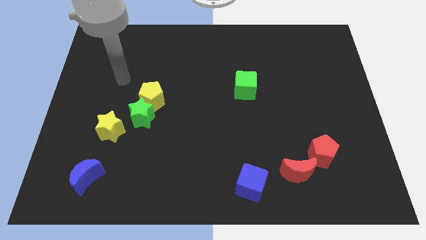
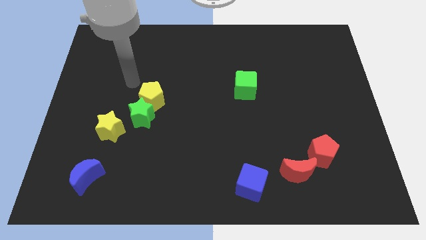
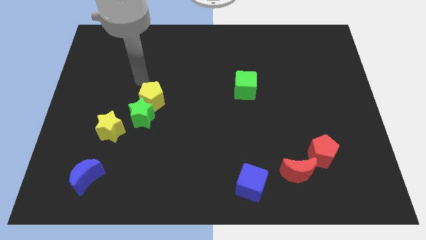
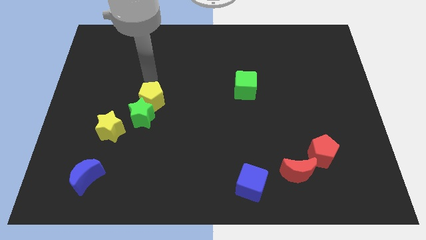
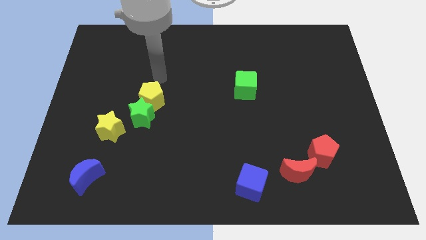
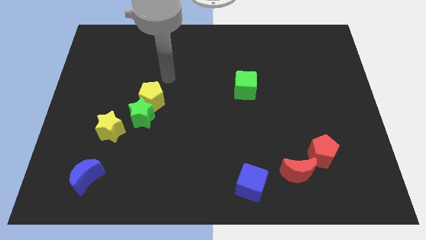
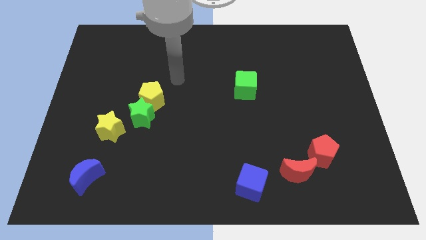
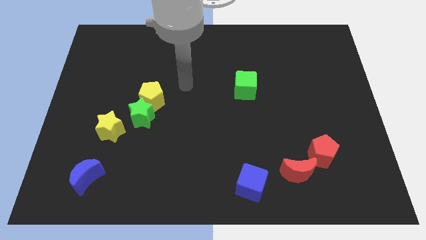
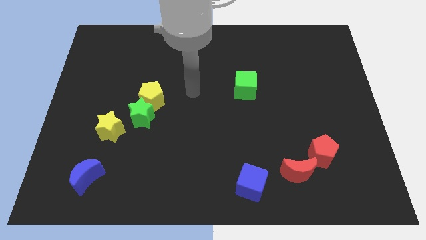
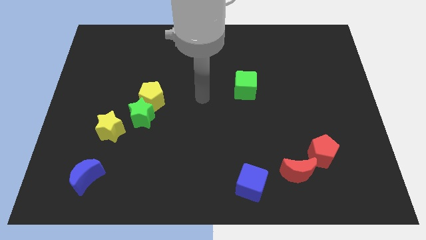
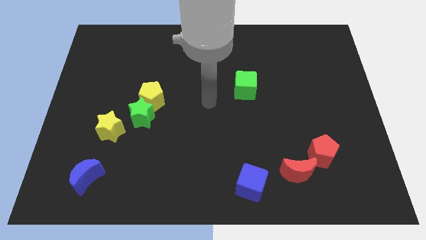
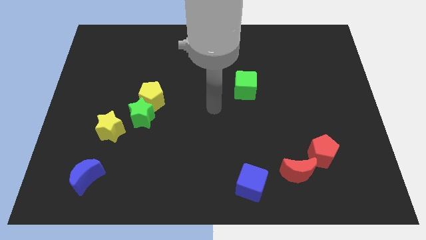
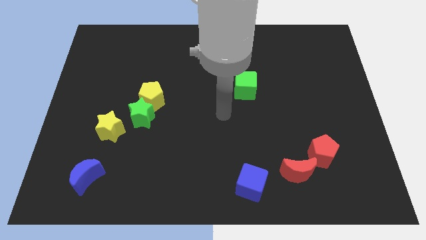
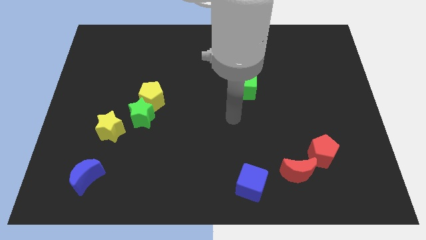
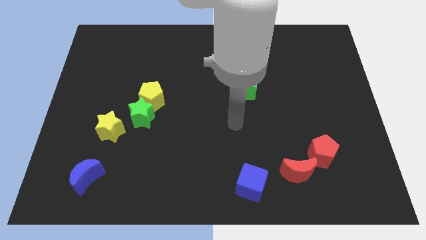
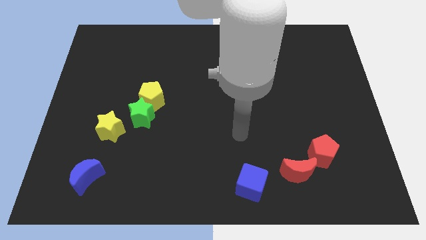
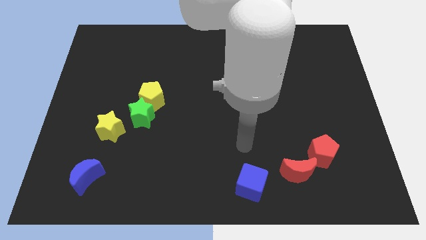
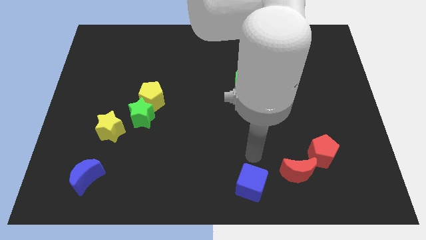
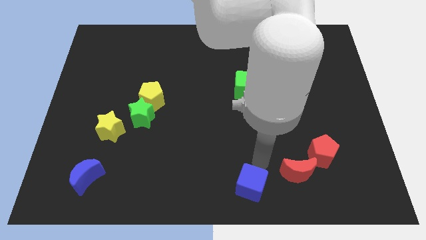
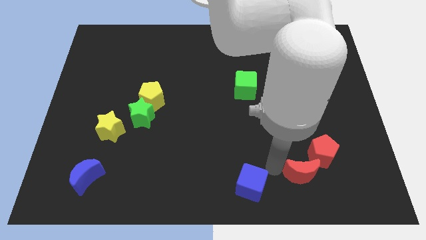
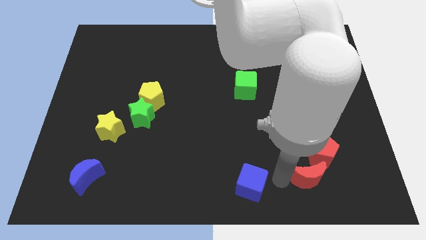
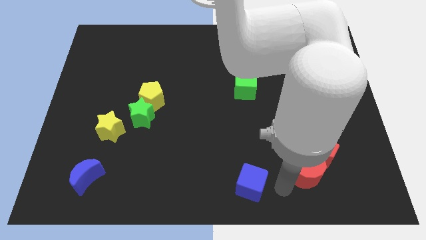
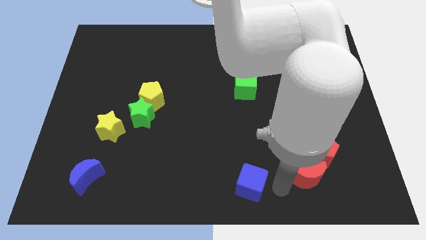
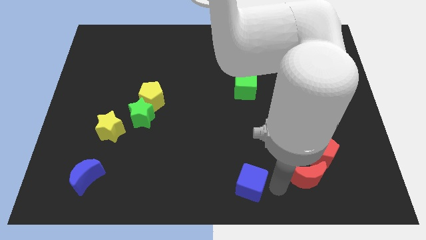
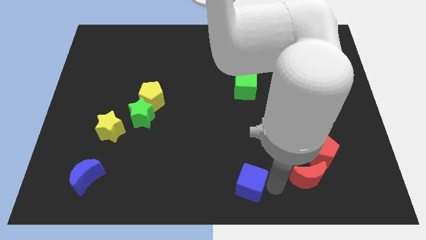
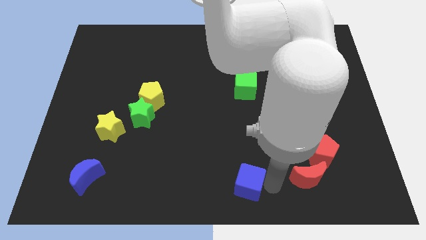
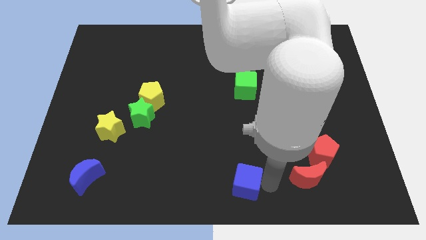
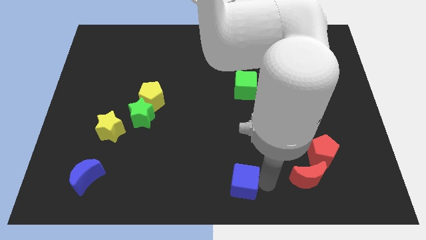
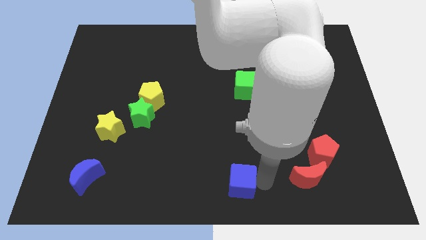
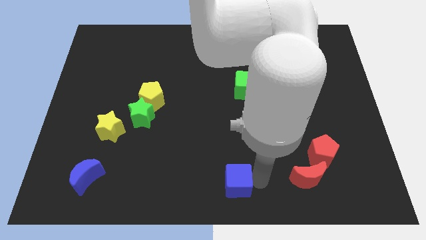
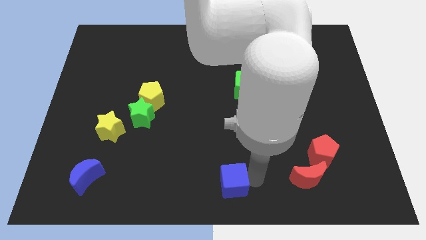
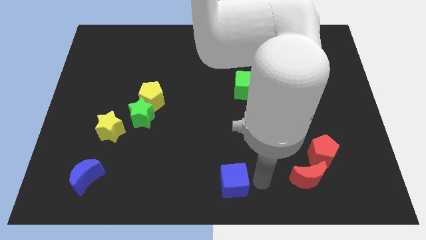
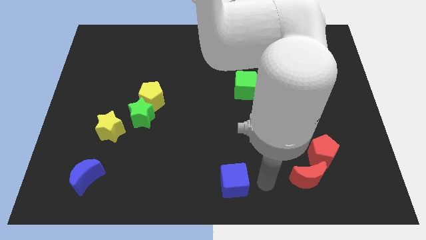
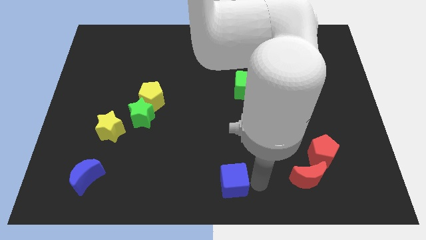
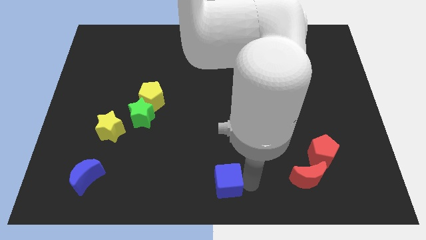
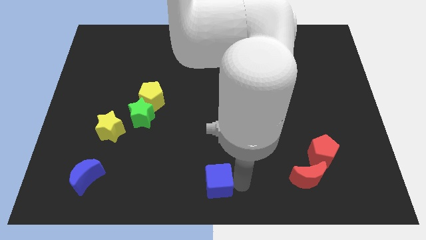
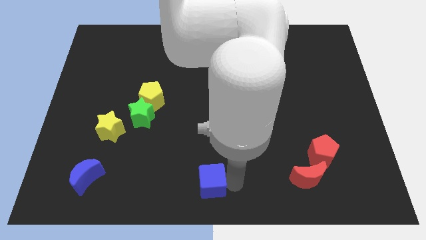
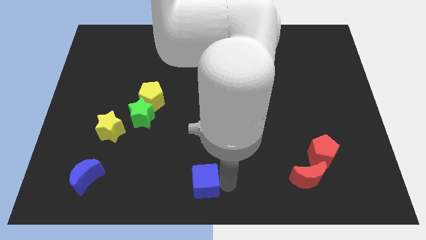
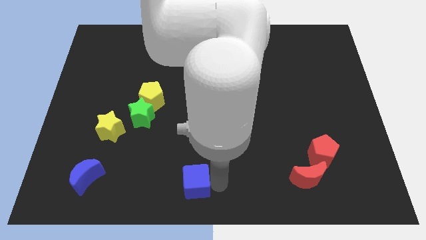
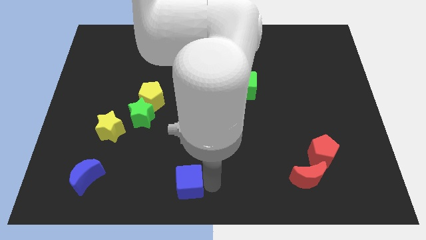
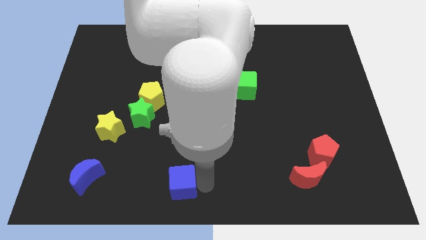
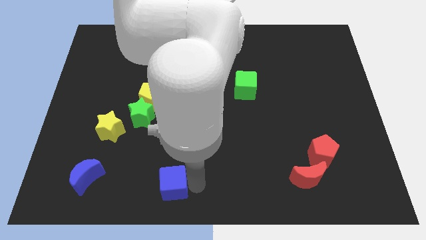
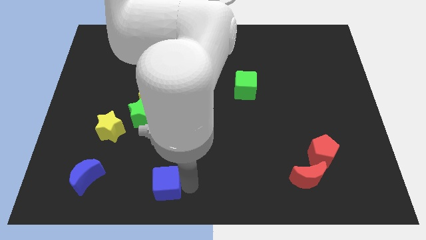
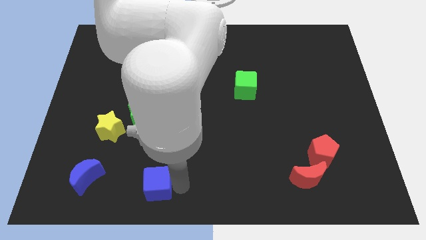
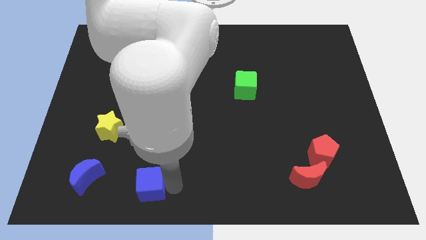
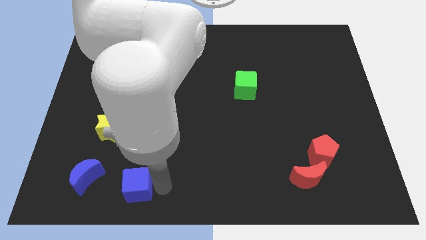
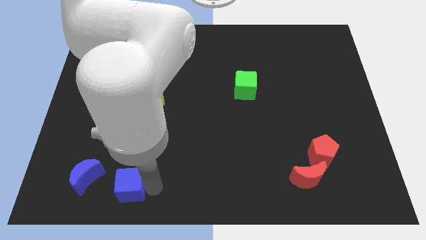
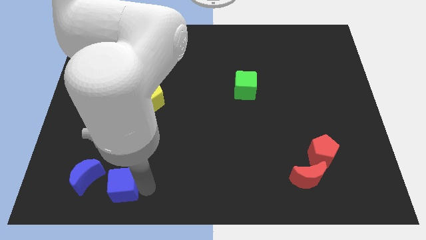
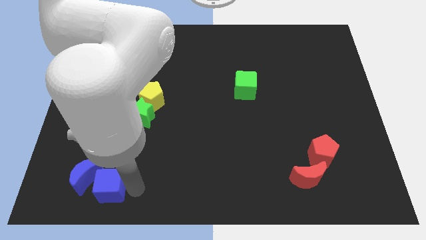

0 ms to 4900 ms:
slide the blue cube close to the blue moon
